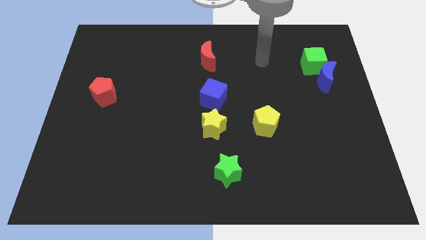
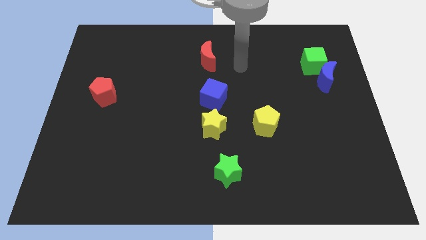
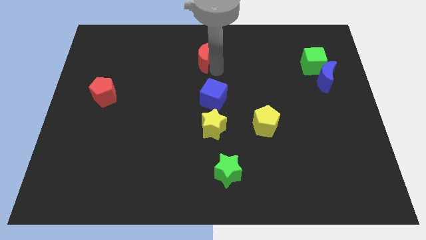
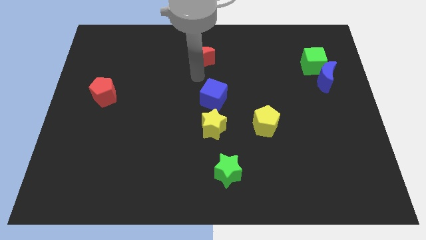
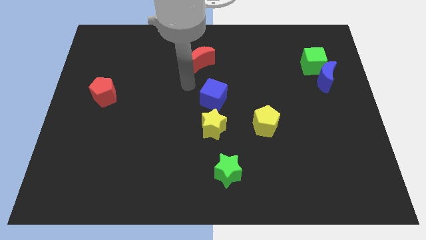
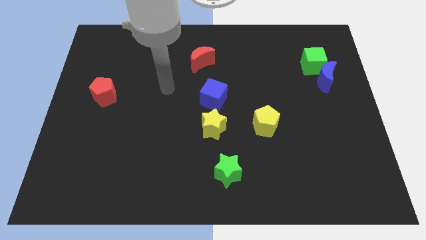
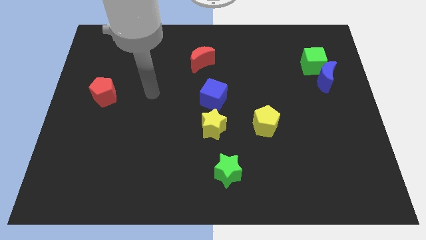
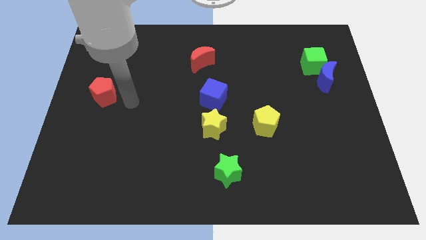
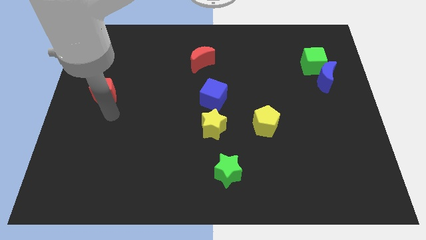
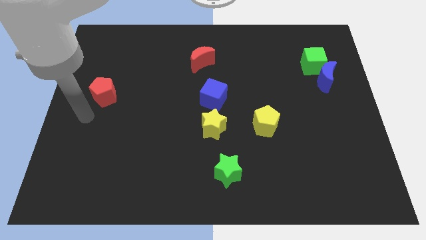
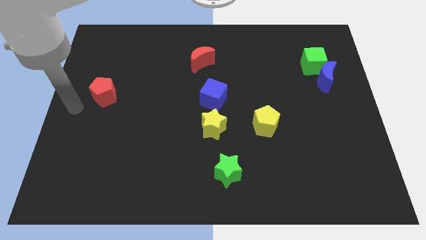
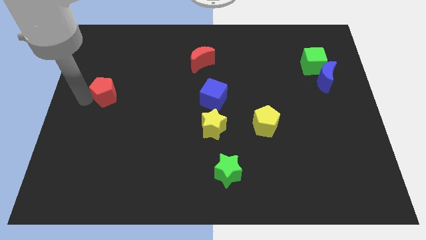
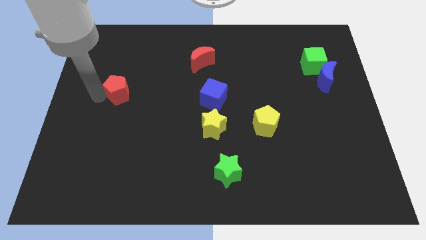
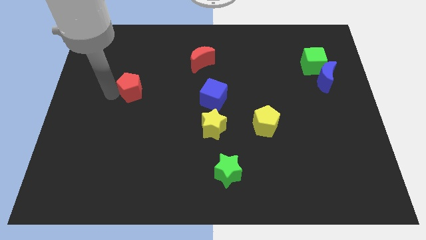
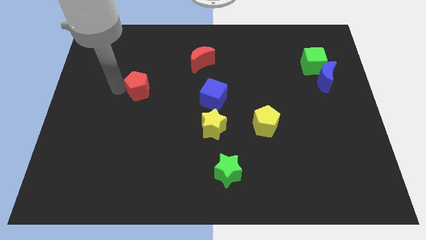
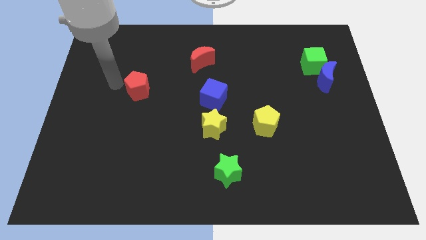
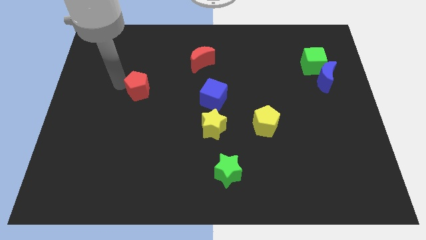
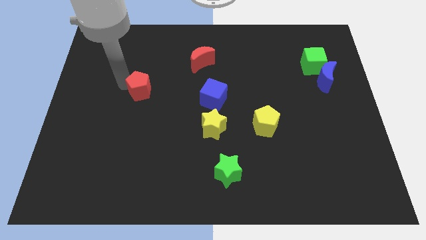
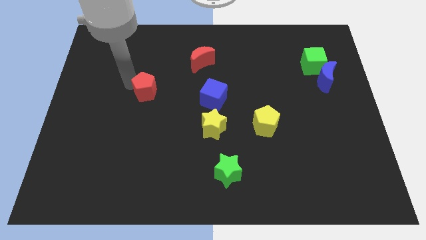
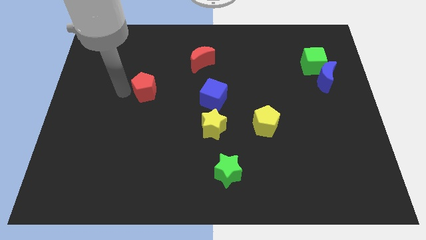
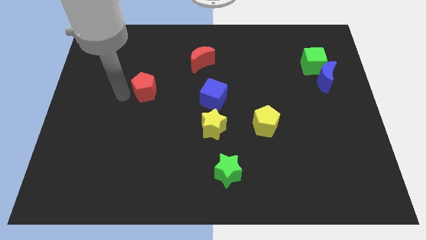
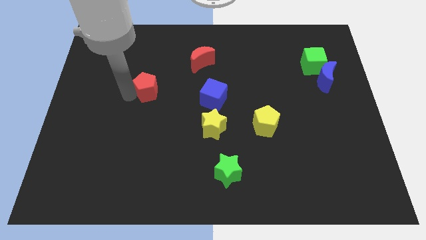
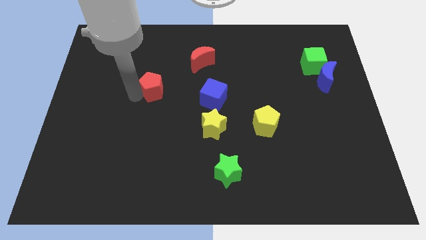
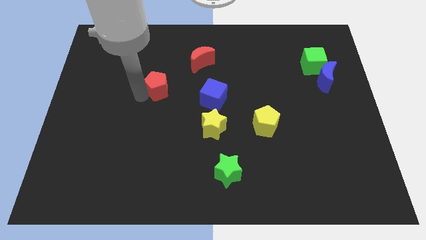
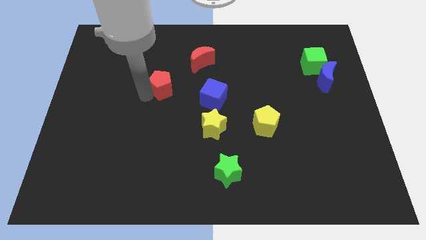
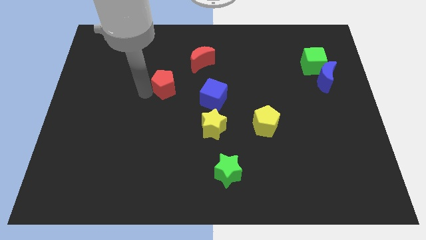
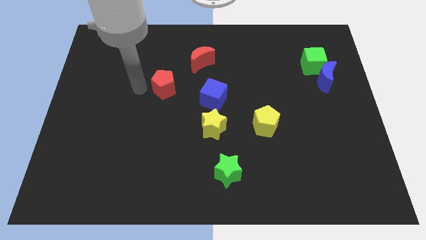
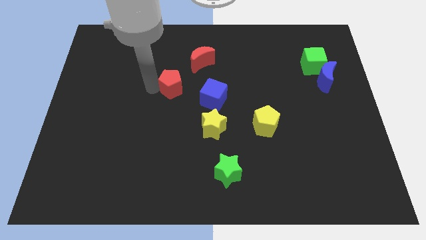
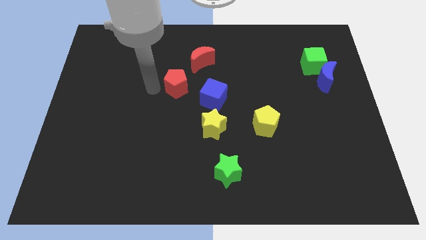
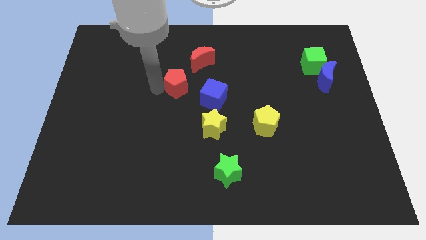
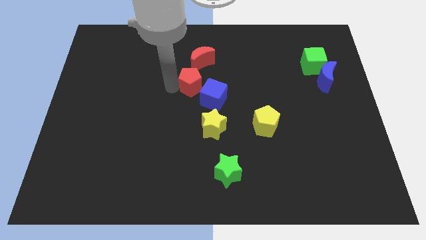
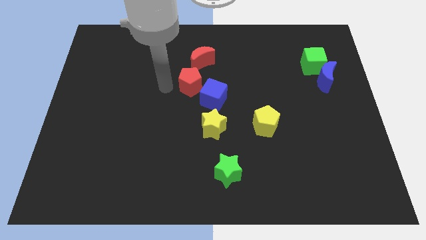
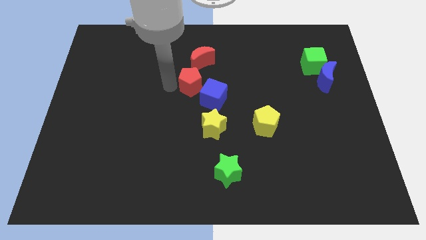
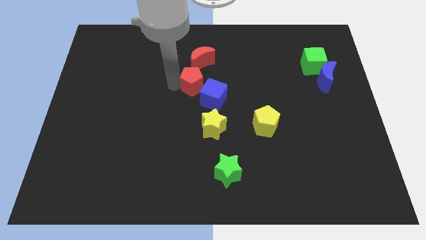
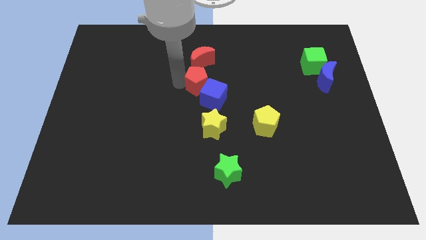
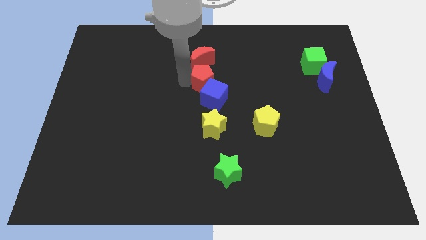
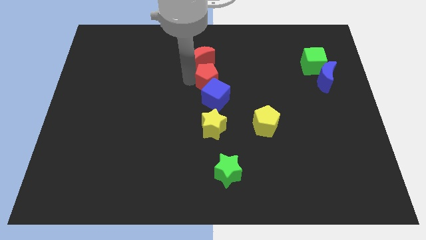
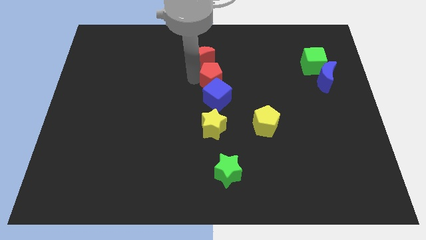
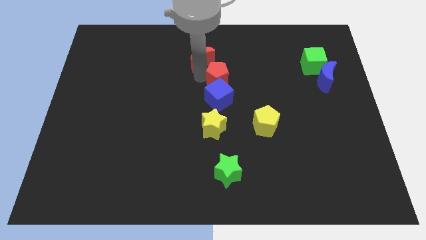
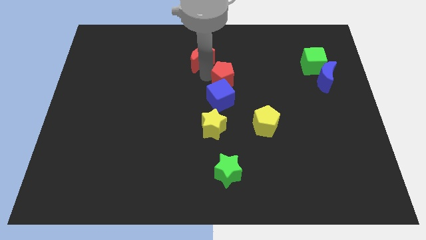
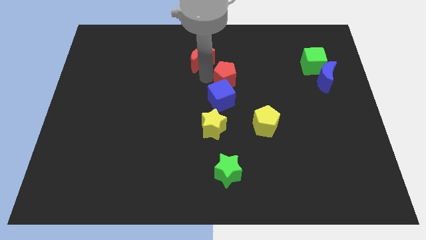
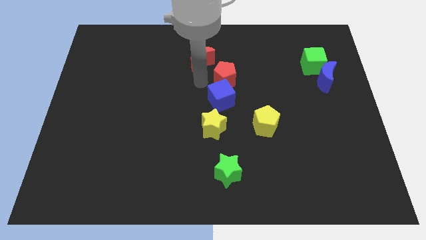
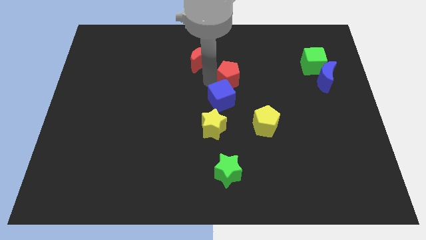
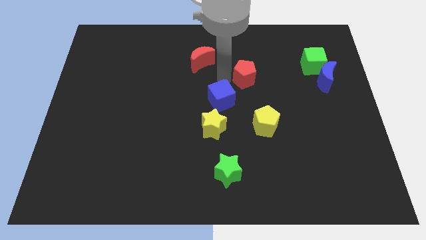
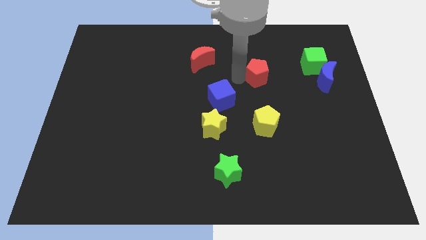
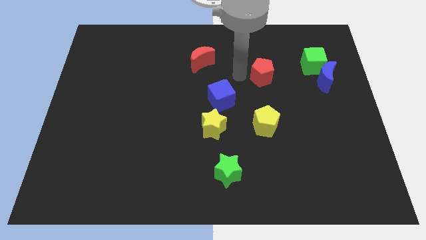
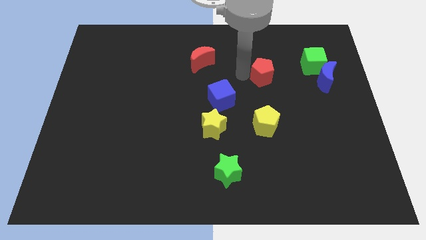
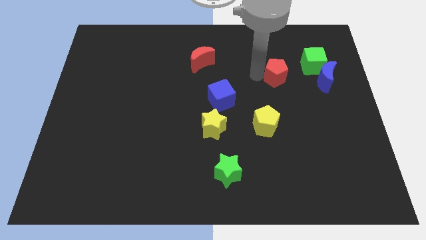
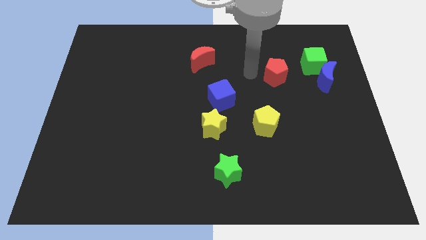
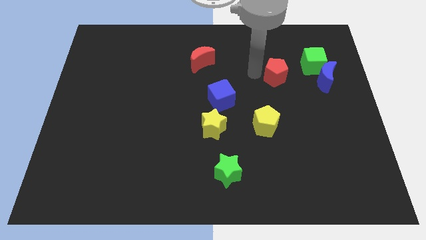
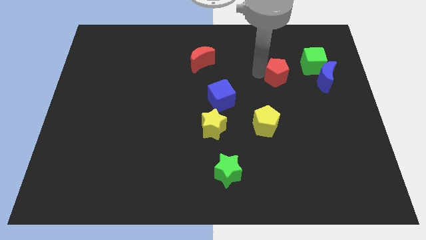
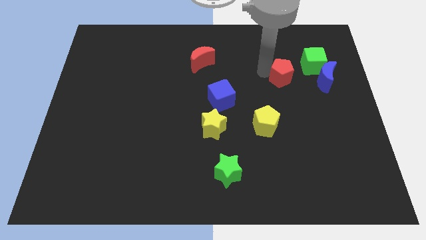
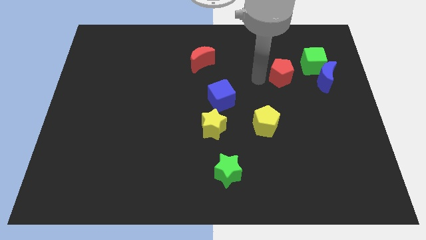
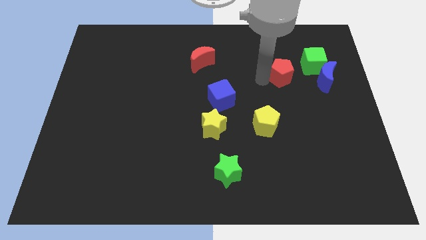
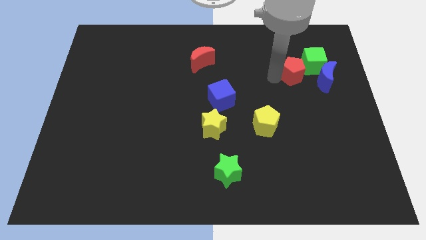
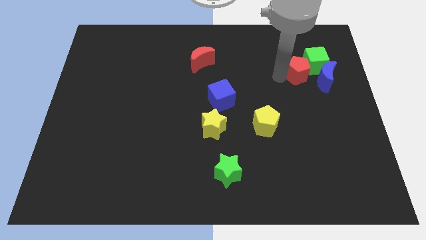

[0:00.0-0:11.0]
push the red pentagon close to the green cube

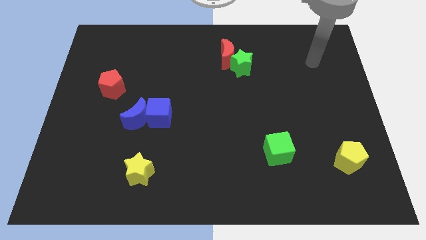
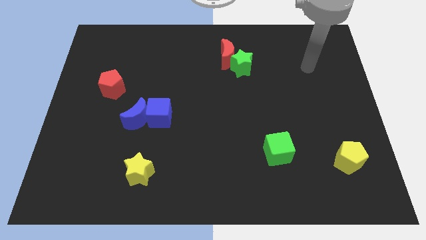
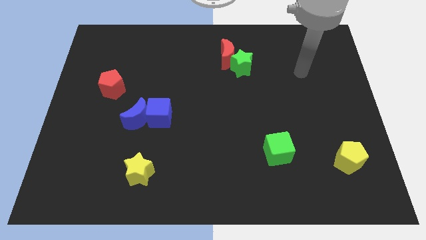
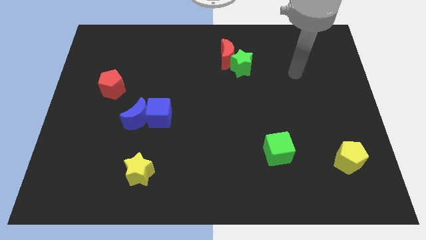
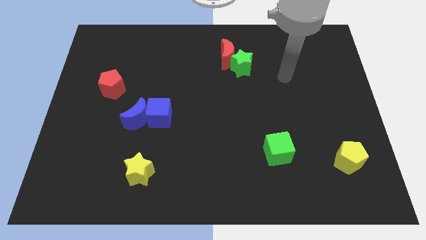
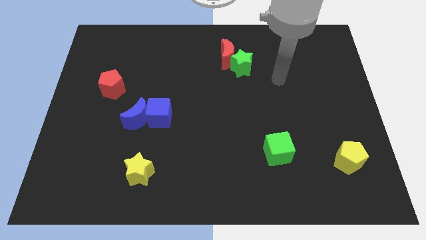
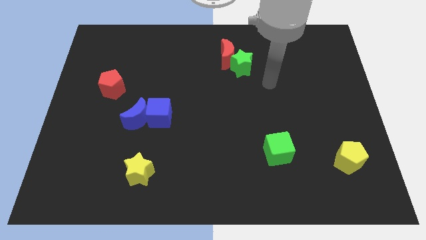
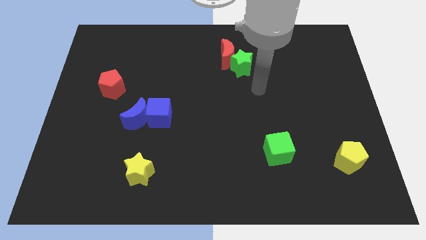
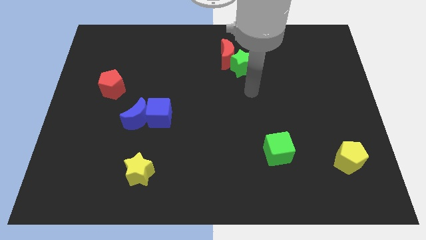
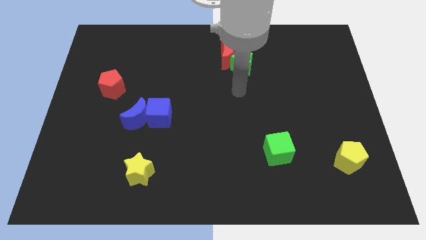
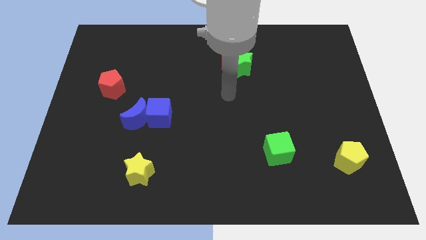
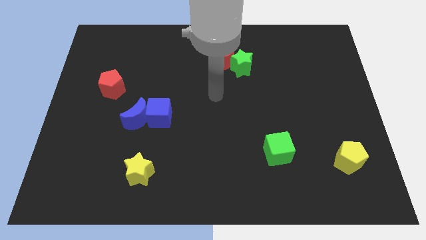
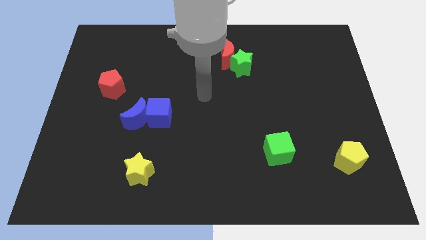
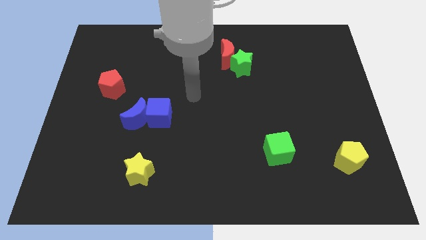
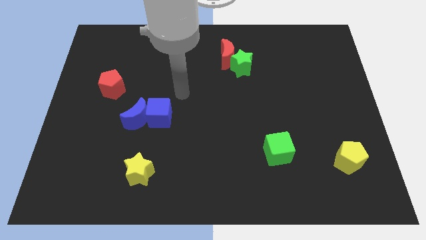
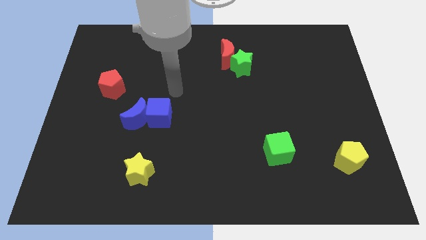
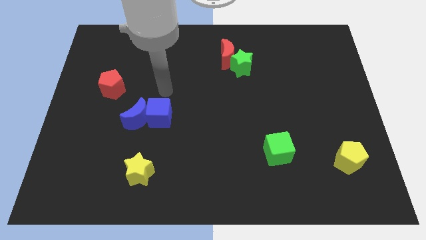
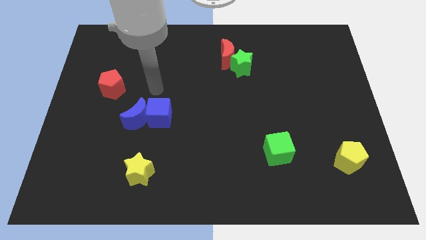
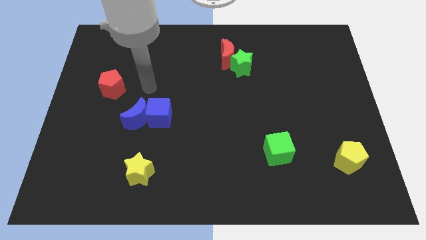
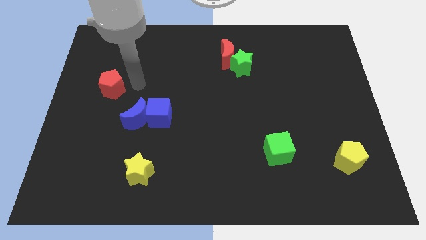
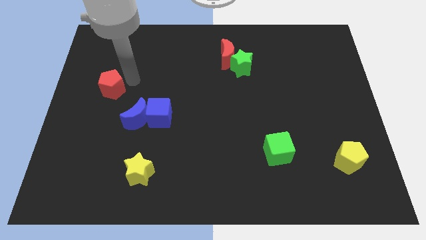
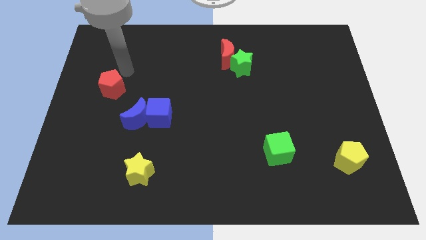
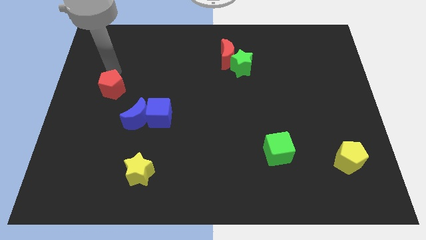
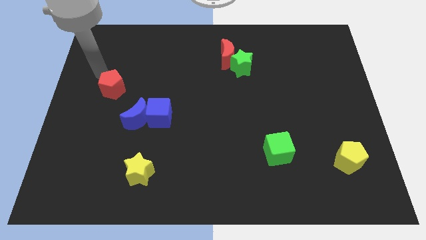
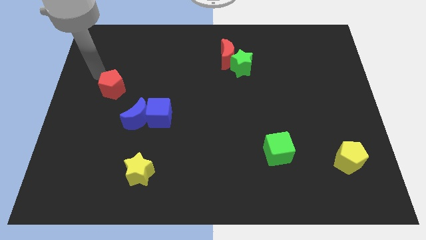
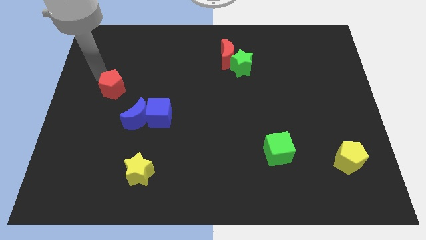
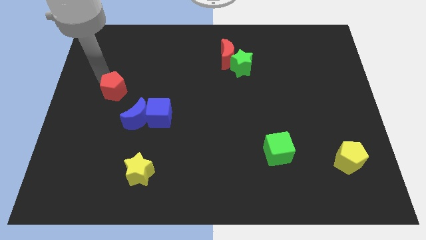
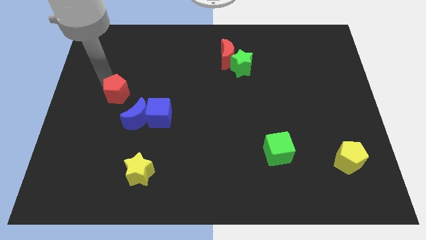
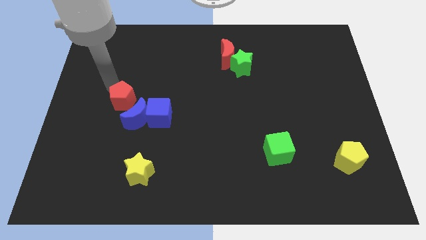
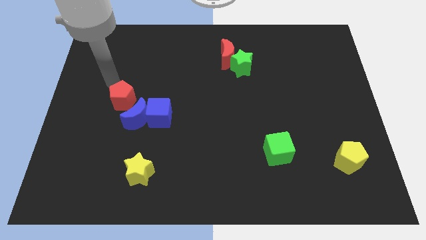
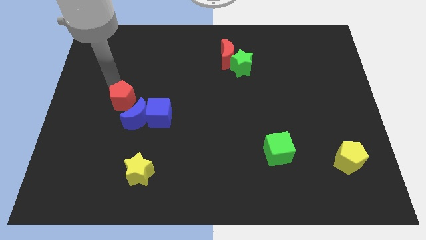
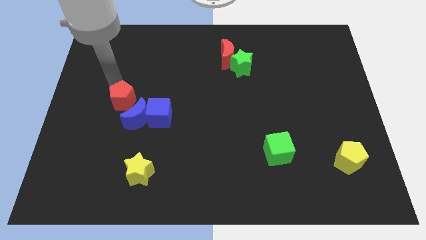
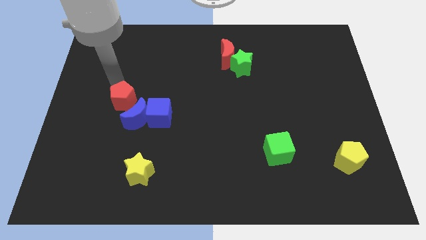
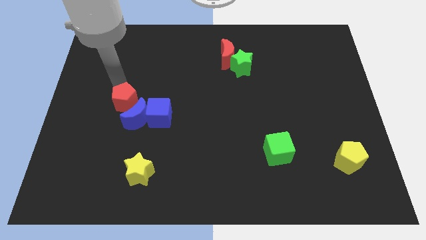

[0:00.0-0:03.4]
push the red pentagon next to the blue moon
